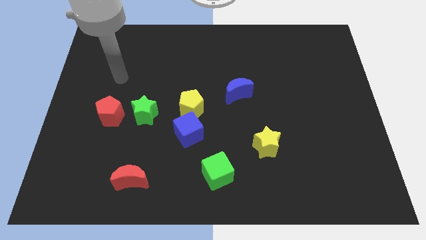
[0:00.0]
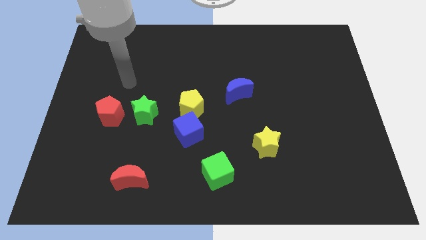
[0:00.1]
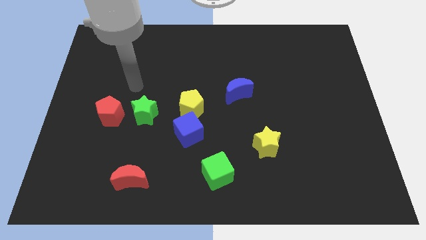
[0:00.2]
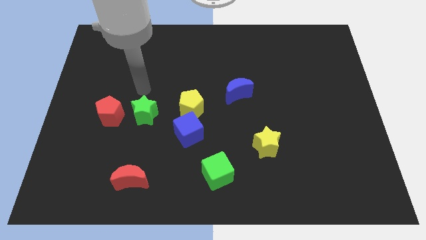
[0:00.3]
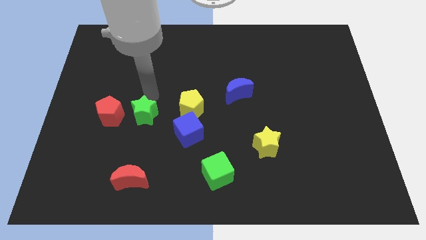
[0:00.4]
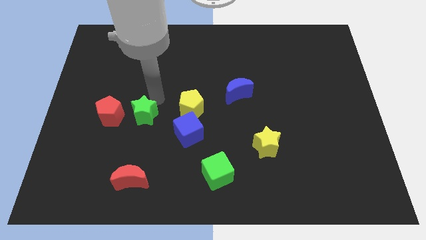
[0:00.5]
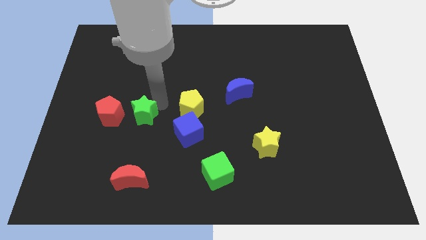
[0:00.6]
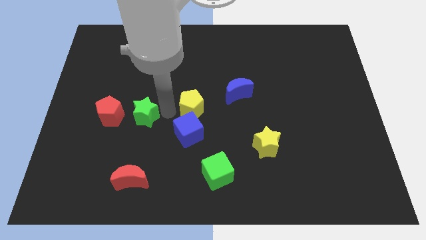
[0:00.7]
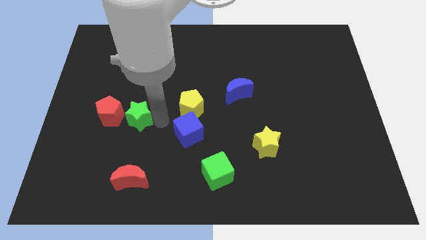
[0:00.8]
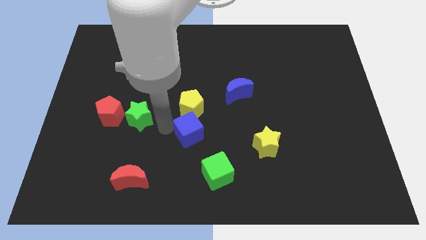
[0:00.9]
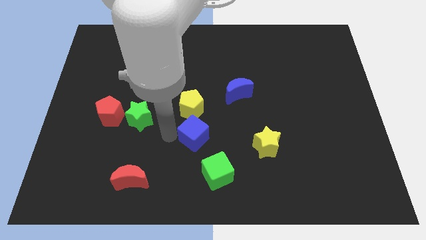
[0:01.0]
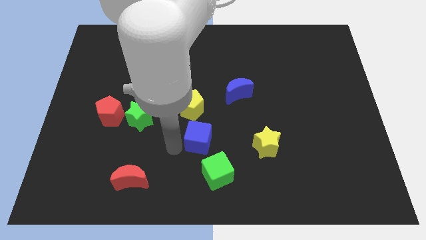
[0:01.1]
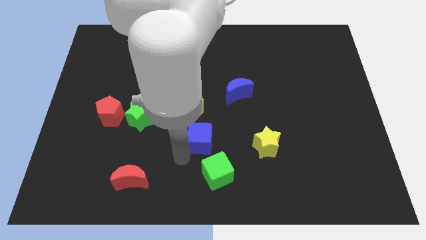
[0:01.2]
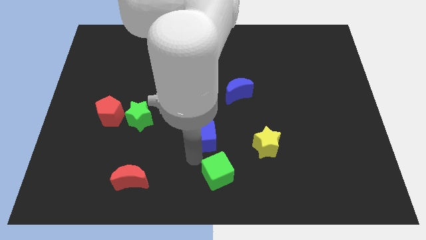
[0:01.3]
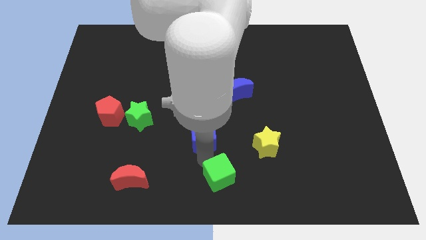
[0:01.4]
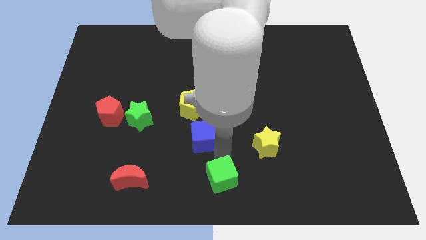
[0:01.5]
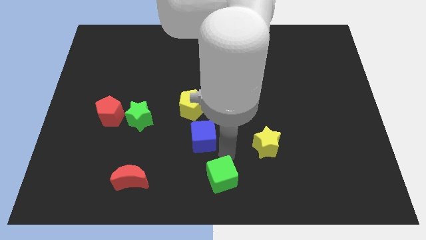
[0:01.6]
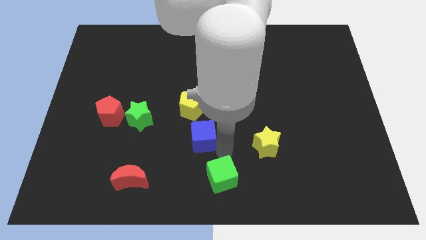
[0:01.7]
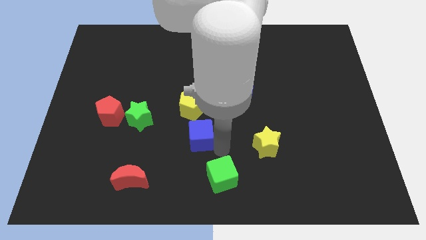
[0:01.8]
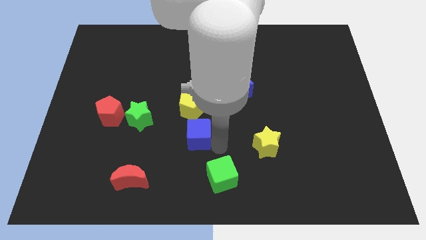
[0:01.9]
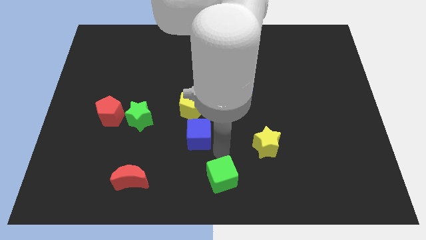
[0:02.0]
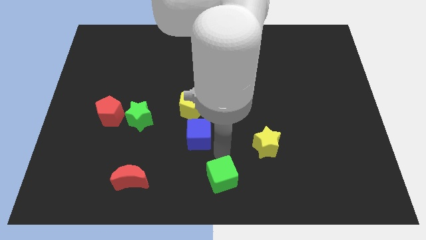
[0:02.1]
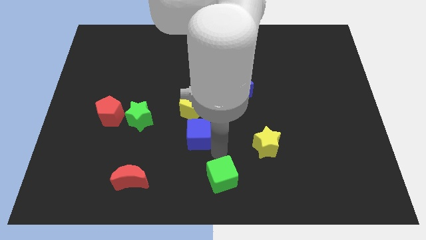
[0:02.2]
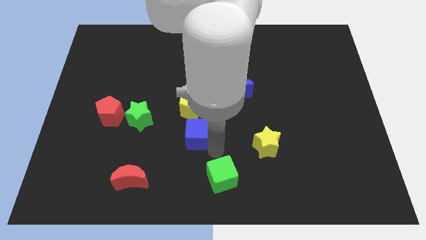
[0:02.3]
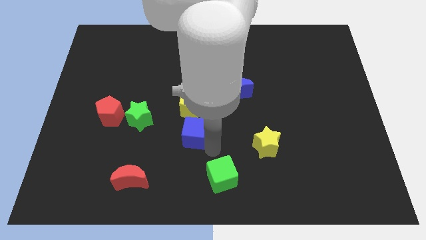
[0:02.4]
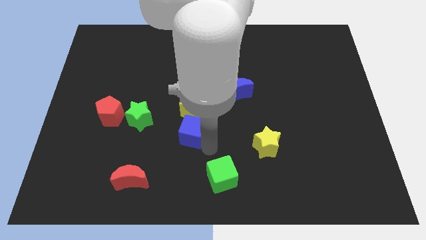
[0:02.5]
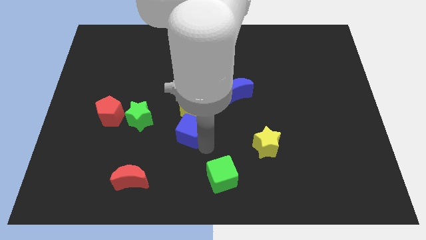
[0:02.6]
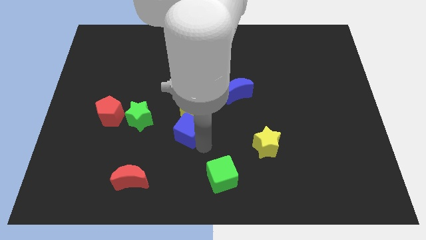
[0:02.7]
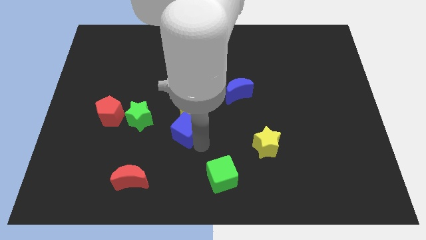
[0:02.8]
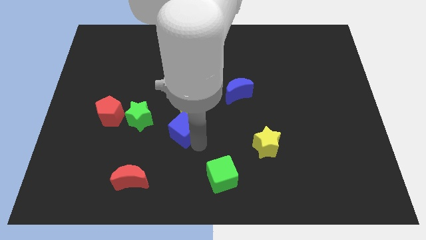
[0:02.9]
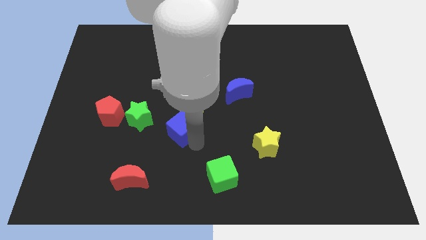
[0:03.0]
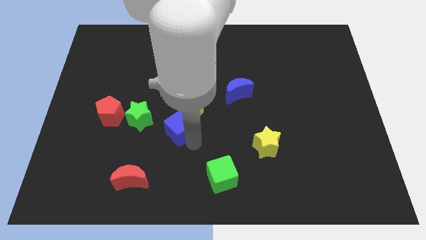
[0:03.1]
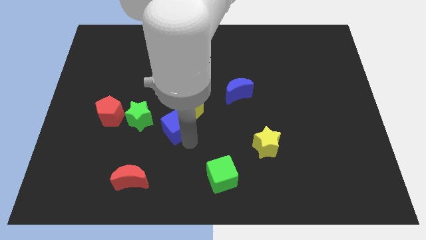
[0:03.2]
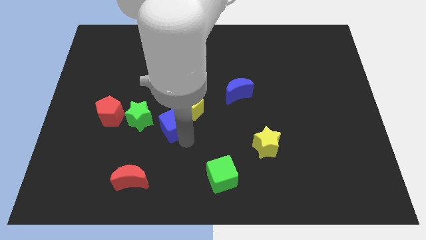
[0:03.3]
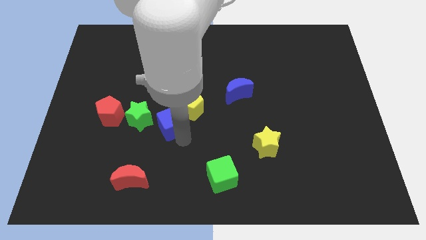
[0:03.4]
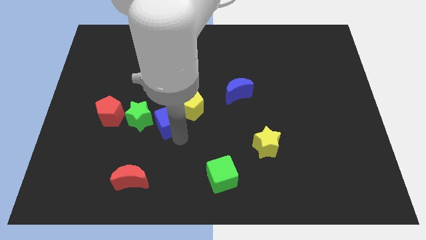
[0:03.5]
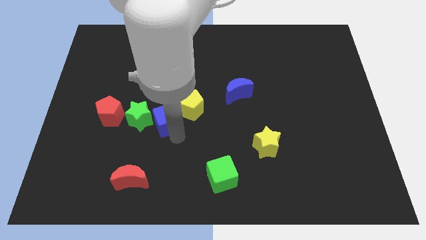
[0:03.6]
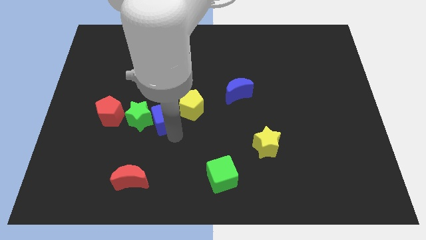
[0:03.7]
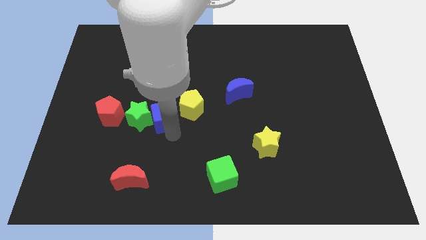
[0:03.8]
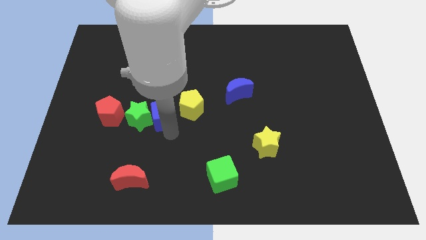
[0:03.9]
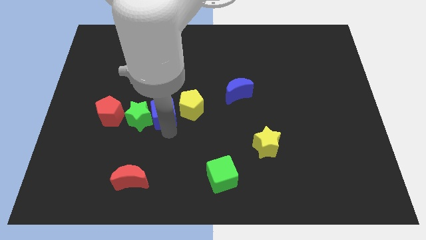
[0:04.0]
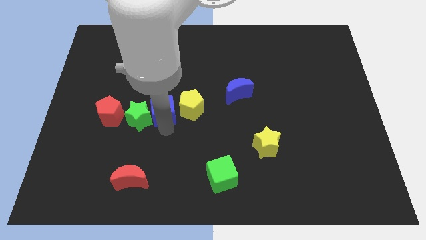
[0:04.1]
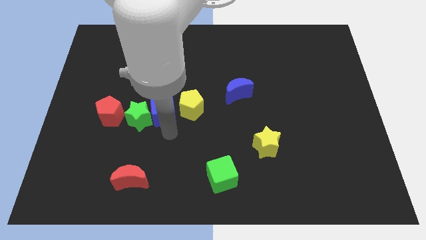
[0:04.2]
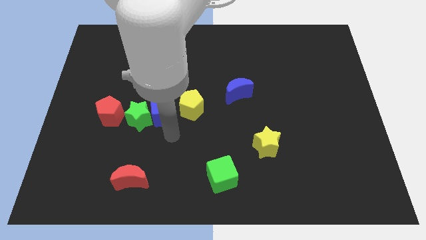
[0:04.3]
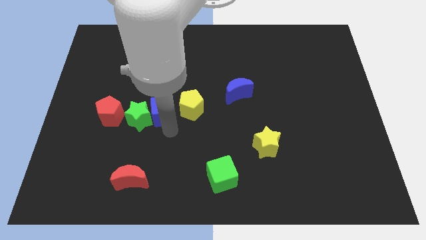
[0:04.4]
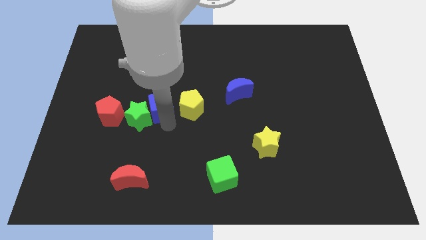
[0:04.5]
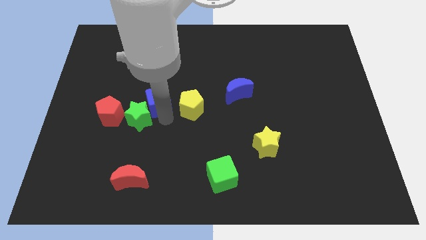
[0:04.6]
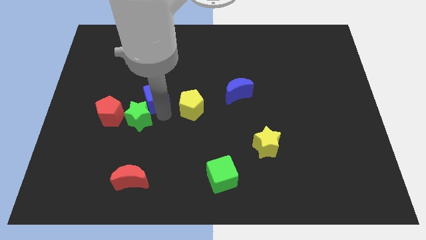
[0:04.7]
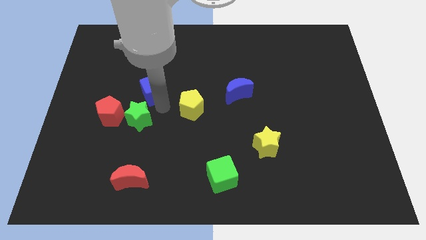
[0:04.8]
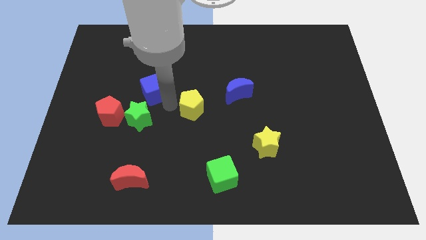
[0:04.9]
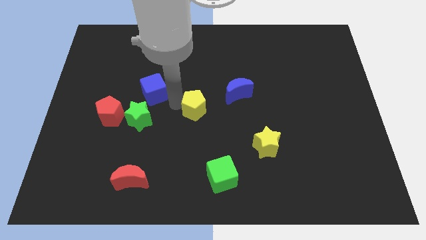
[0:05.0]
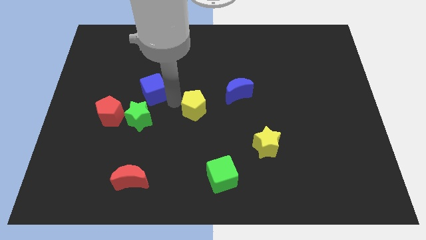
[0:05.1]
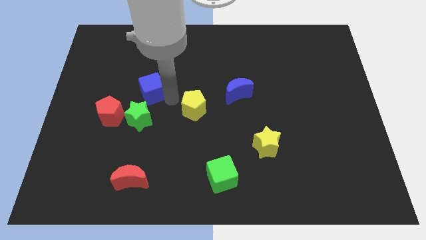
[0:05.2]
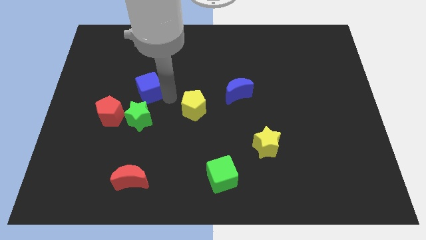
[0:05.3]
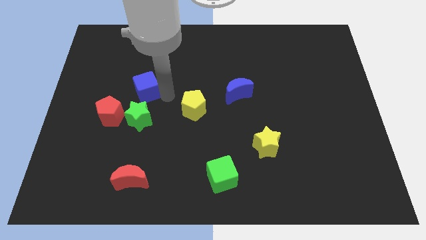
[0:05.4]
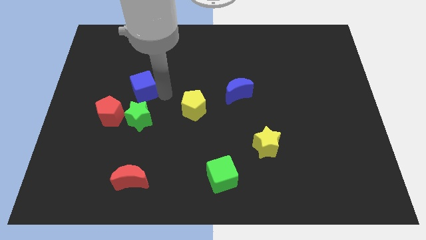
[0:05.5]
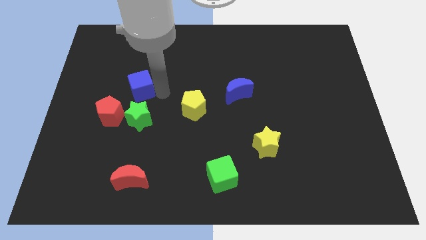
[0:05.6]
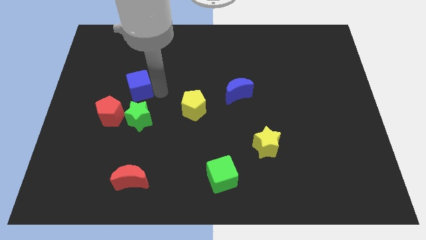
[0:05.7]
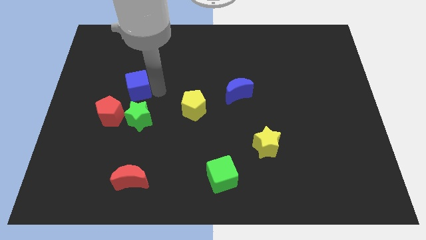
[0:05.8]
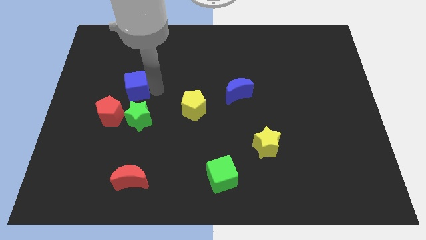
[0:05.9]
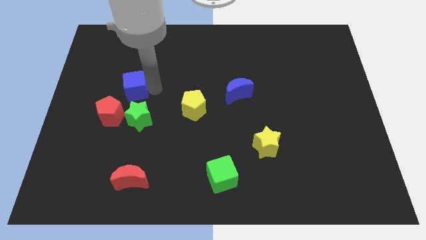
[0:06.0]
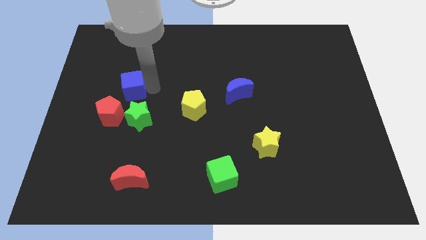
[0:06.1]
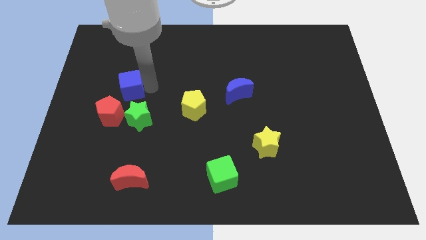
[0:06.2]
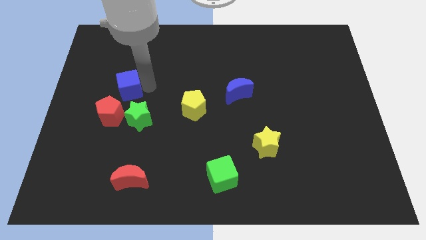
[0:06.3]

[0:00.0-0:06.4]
push the blue cube upwards and to the left diagonally

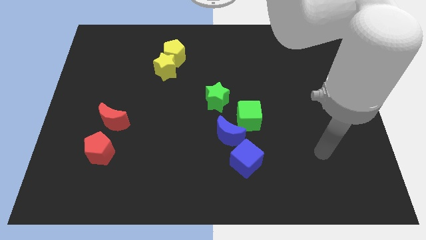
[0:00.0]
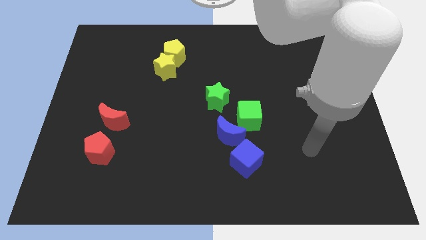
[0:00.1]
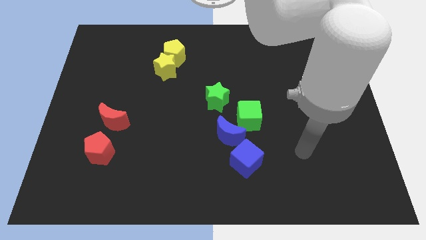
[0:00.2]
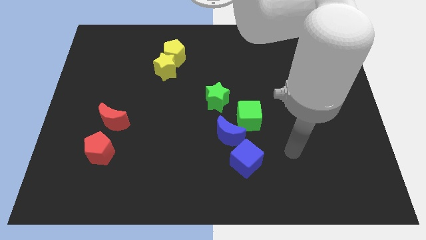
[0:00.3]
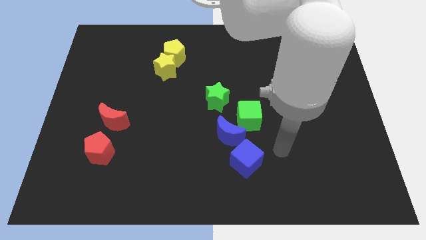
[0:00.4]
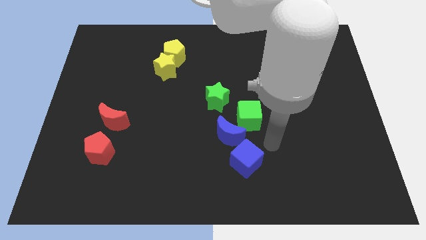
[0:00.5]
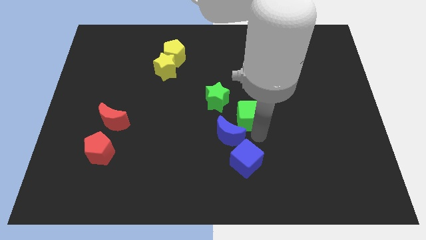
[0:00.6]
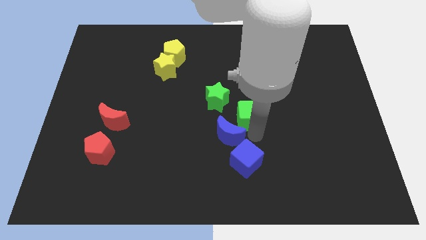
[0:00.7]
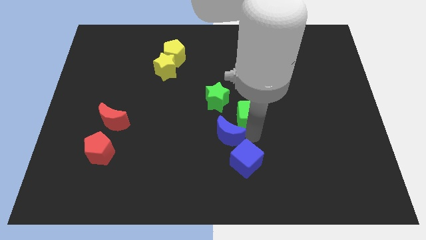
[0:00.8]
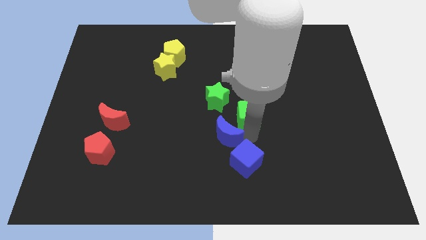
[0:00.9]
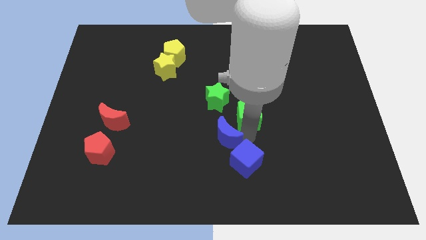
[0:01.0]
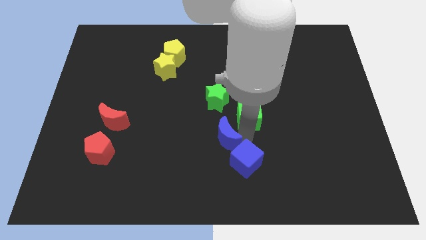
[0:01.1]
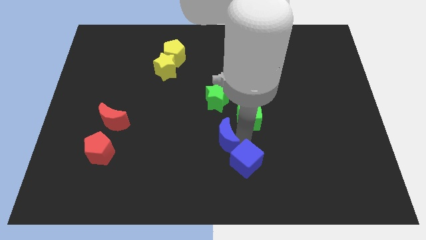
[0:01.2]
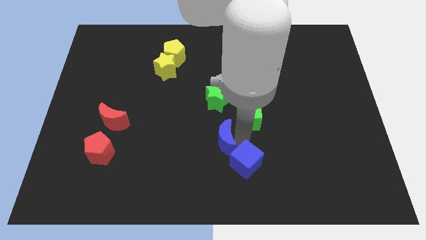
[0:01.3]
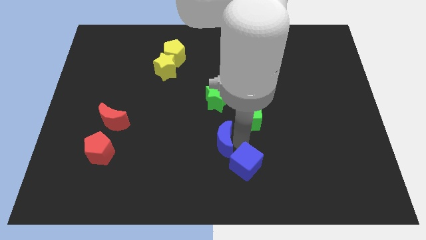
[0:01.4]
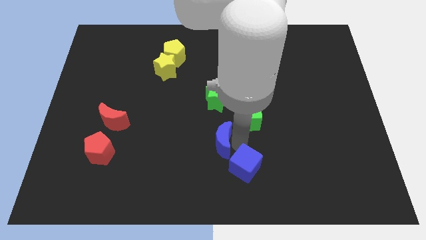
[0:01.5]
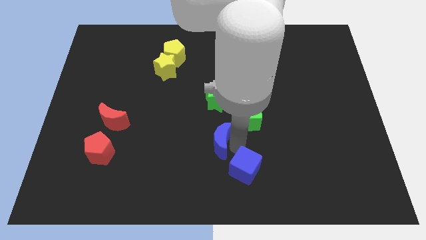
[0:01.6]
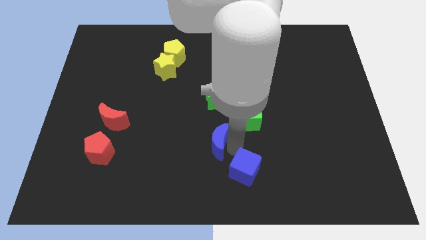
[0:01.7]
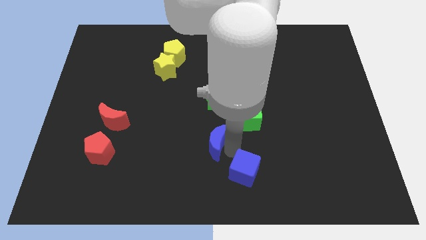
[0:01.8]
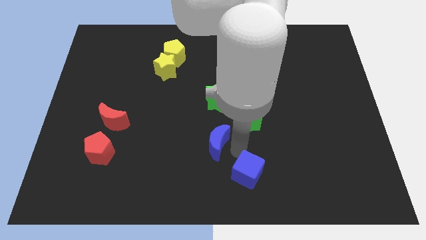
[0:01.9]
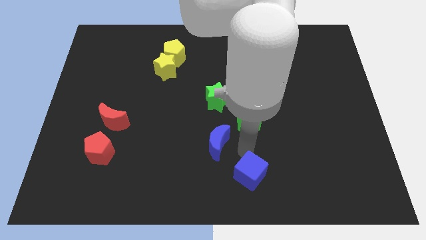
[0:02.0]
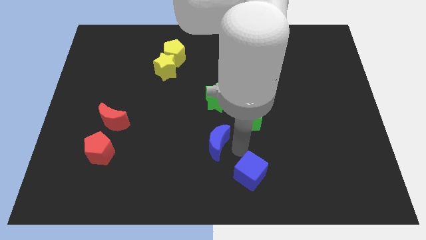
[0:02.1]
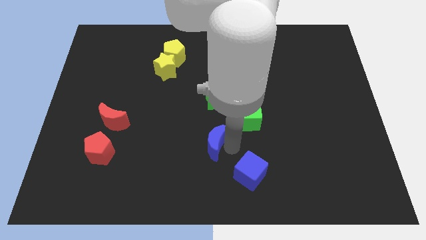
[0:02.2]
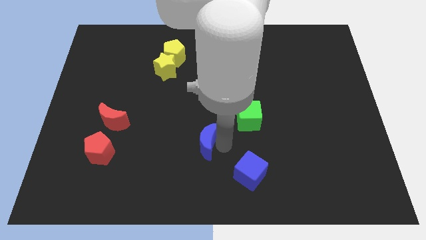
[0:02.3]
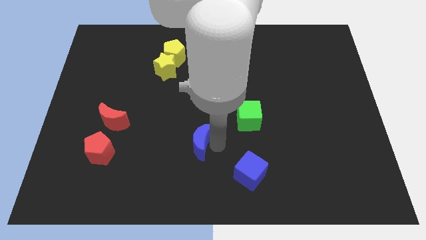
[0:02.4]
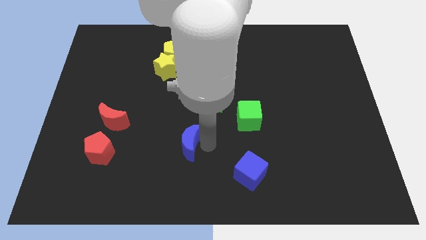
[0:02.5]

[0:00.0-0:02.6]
slide the blue moon left a little
